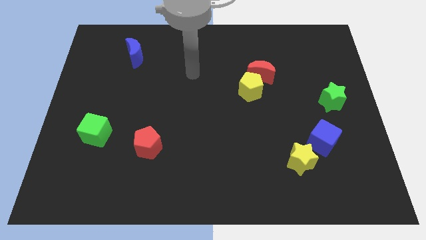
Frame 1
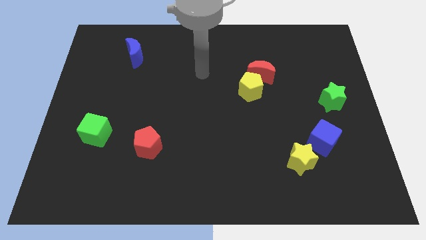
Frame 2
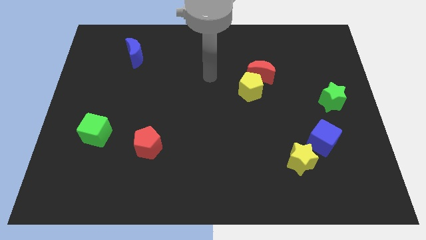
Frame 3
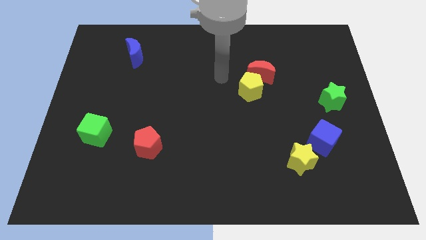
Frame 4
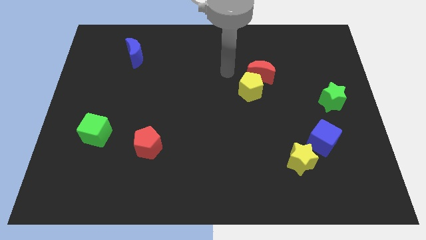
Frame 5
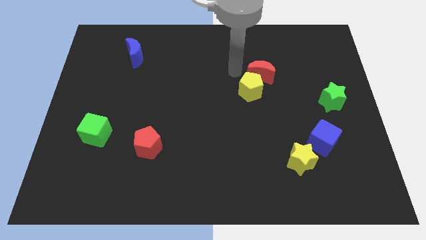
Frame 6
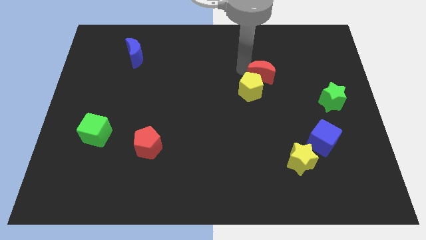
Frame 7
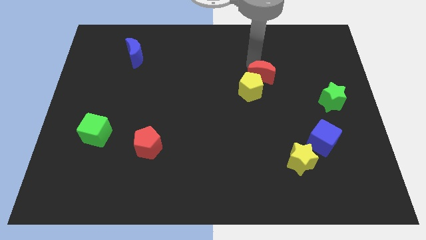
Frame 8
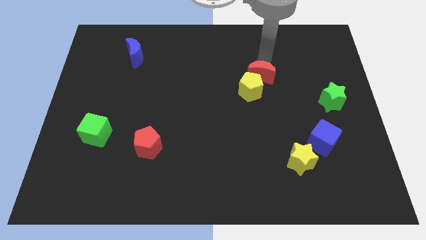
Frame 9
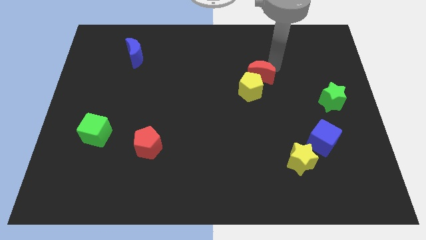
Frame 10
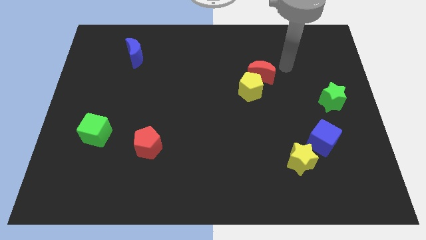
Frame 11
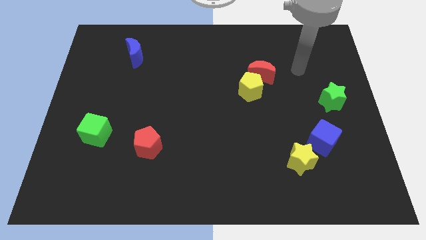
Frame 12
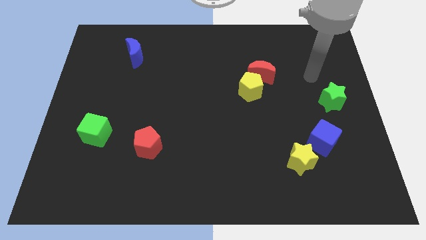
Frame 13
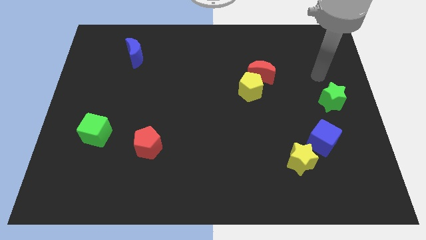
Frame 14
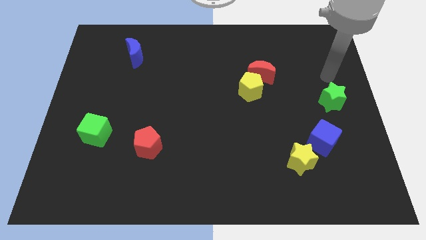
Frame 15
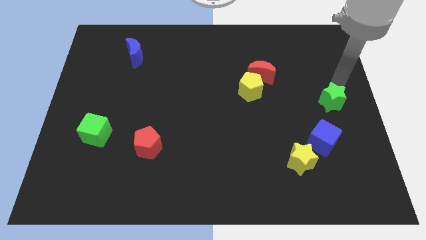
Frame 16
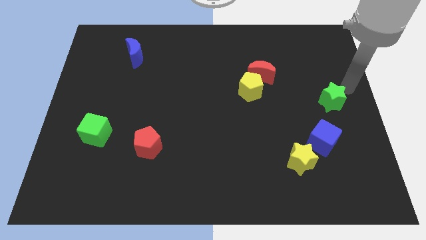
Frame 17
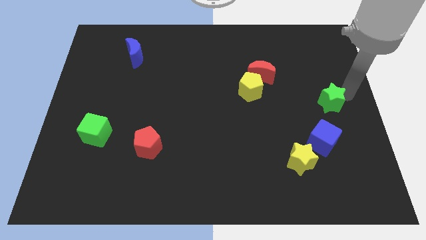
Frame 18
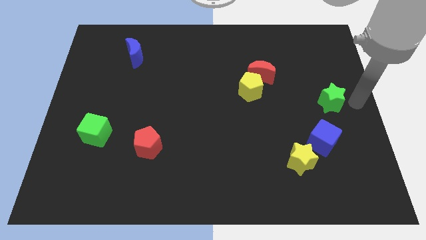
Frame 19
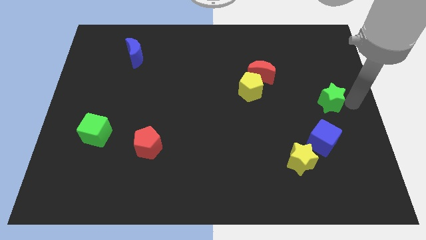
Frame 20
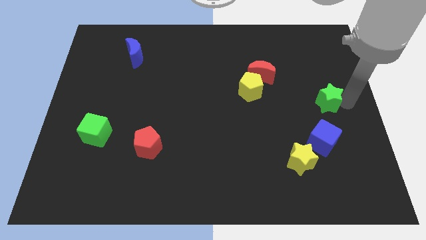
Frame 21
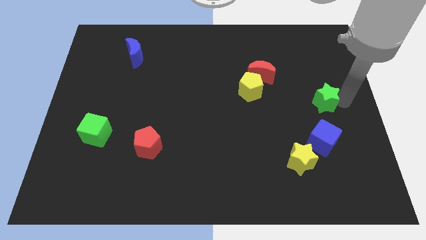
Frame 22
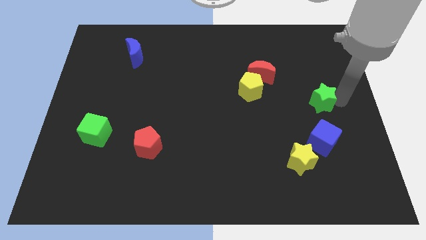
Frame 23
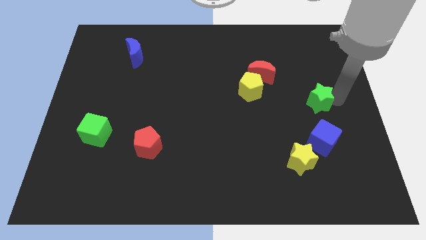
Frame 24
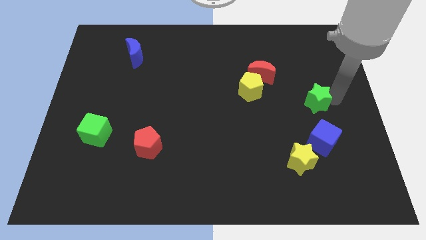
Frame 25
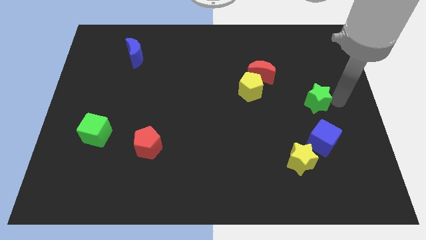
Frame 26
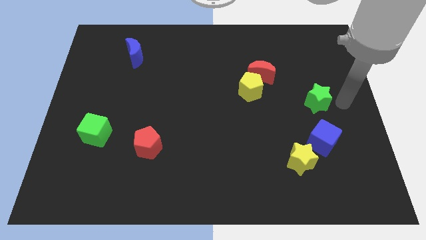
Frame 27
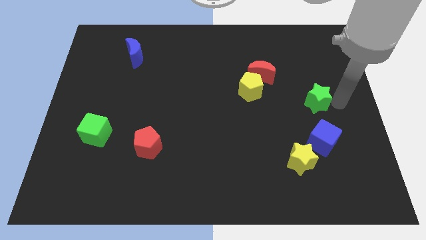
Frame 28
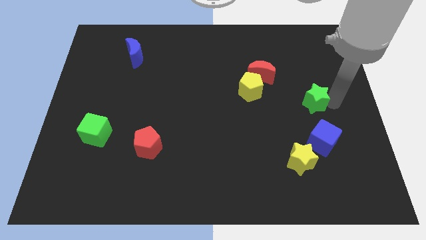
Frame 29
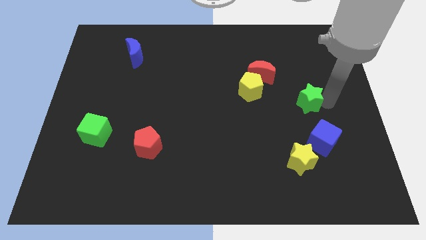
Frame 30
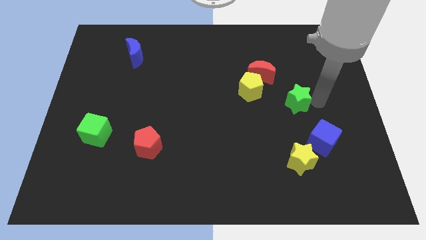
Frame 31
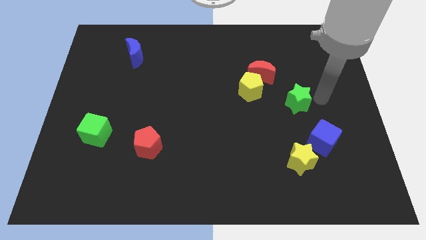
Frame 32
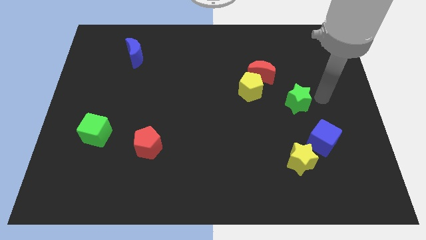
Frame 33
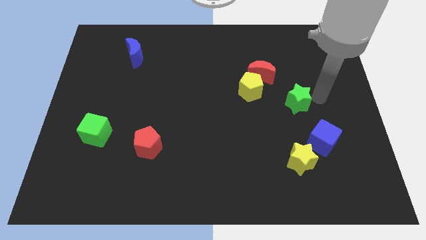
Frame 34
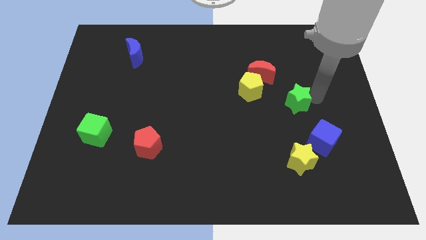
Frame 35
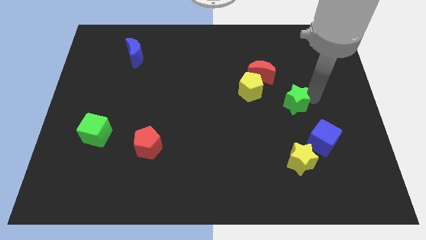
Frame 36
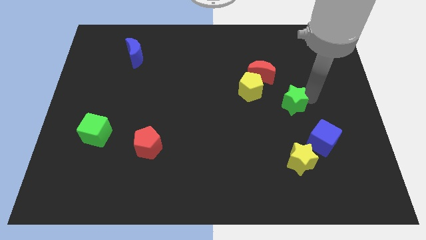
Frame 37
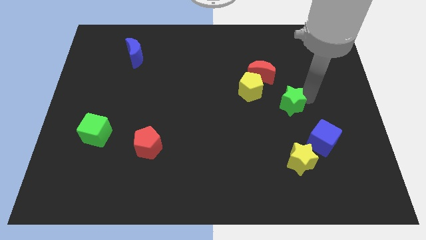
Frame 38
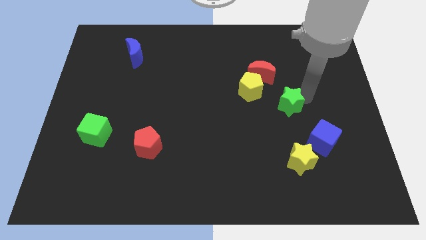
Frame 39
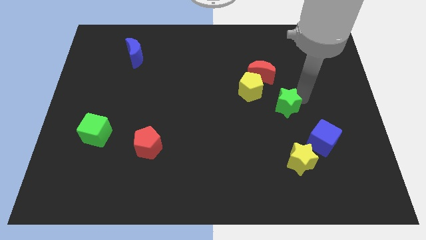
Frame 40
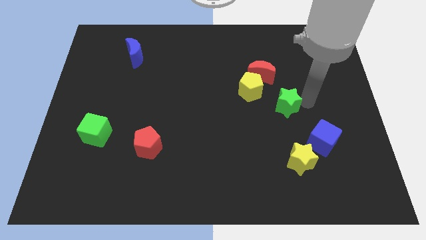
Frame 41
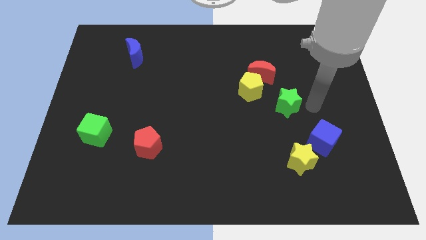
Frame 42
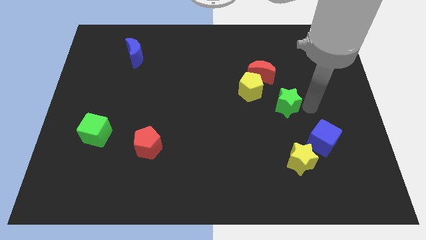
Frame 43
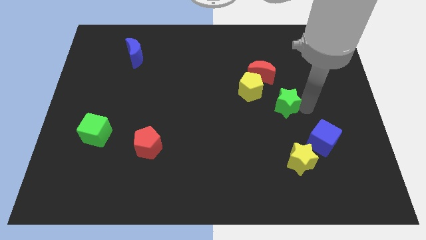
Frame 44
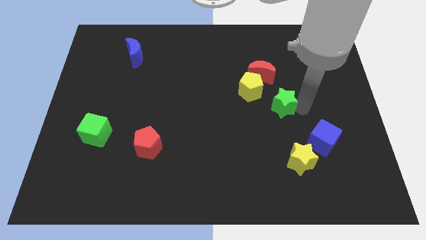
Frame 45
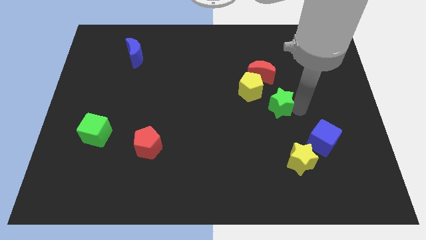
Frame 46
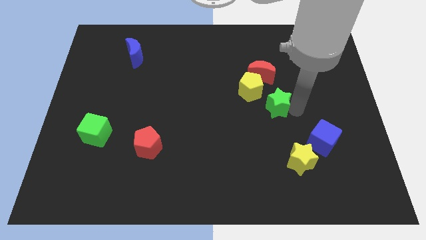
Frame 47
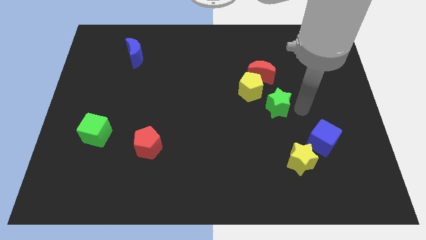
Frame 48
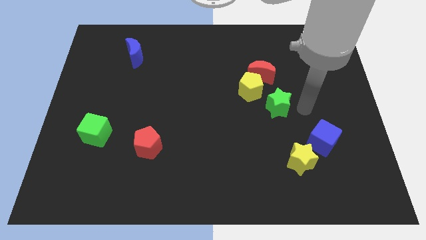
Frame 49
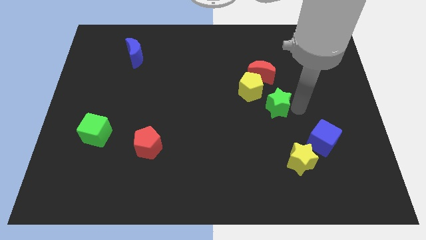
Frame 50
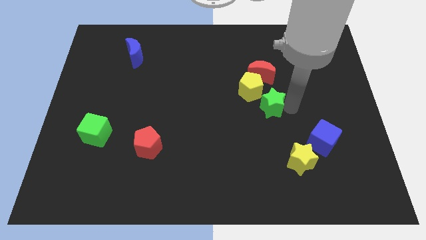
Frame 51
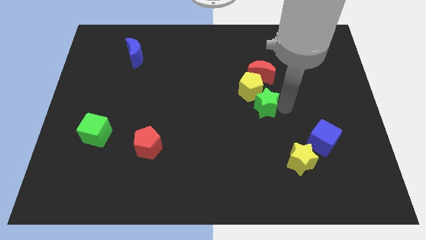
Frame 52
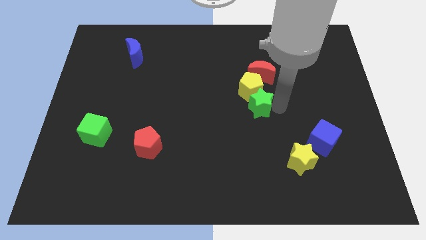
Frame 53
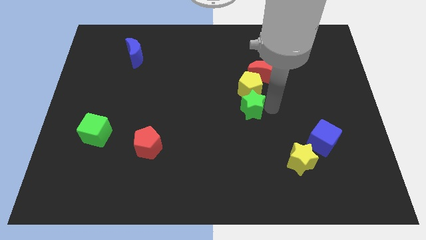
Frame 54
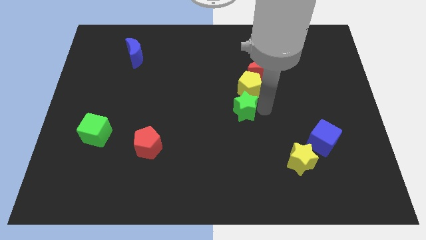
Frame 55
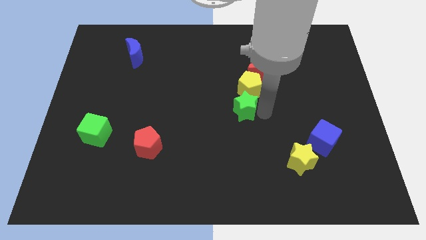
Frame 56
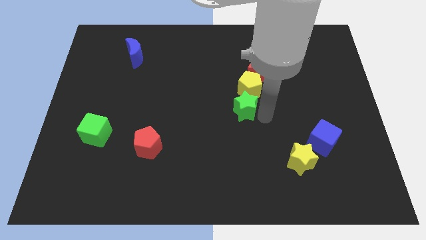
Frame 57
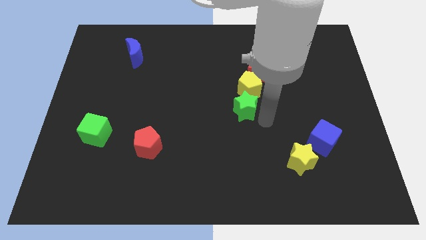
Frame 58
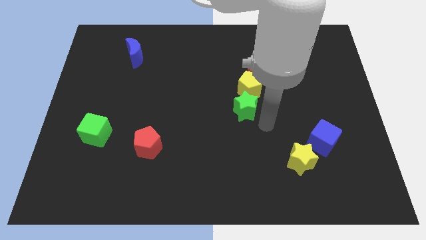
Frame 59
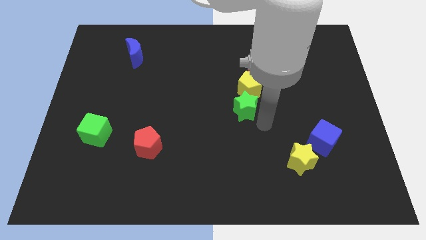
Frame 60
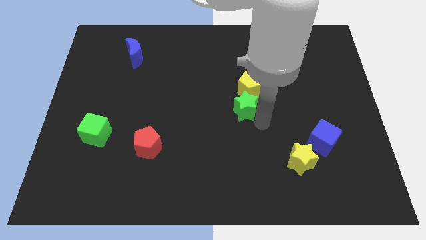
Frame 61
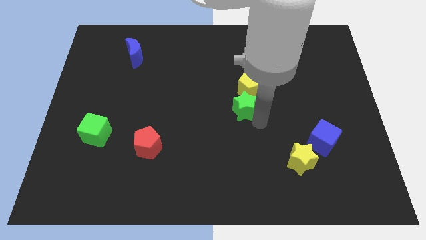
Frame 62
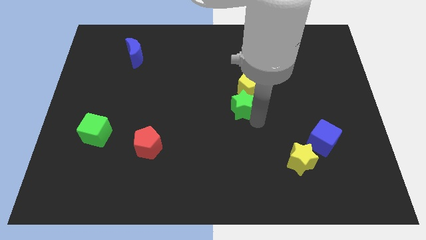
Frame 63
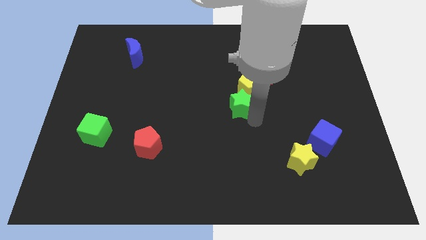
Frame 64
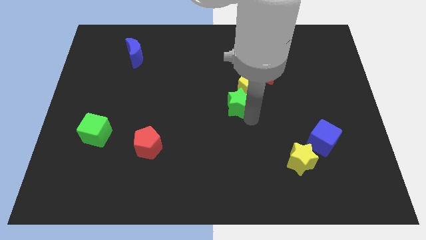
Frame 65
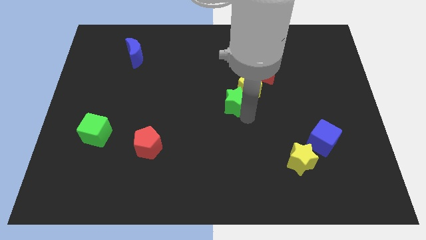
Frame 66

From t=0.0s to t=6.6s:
push the green star to the left side of the yellow pentagon
